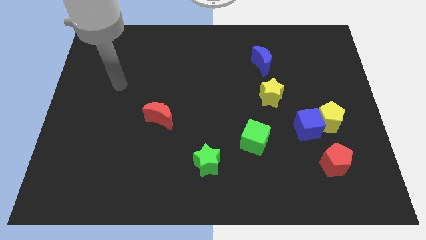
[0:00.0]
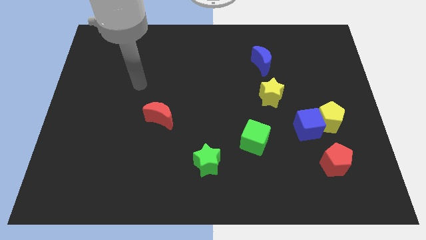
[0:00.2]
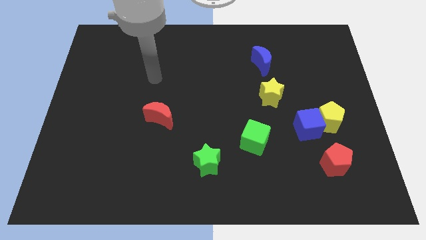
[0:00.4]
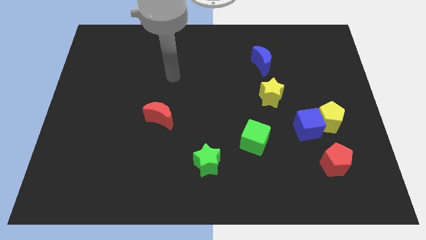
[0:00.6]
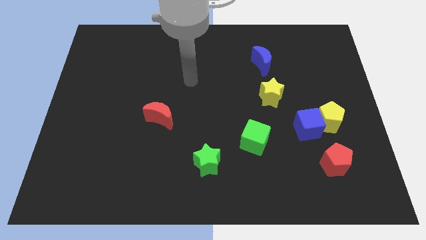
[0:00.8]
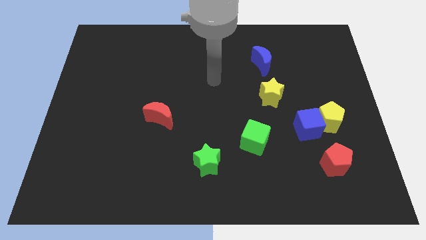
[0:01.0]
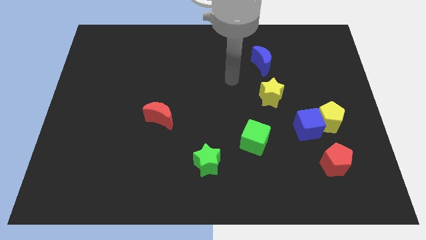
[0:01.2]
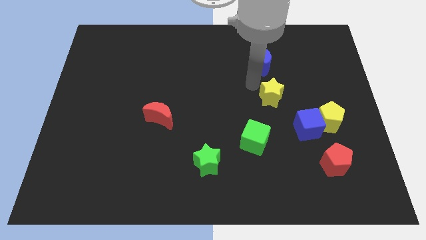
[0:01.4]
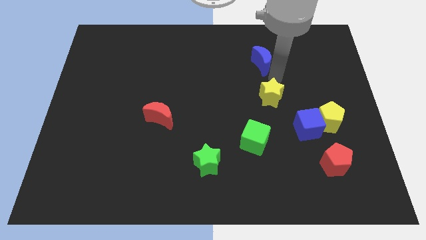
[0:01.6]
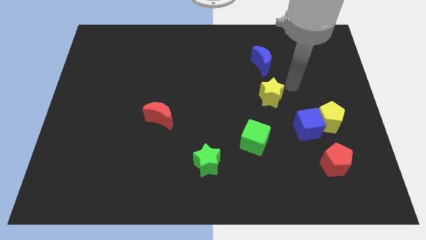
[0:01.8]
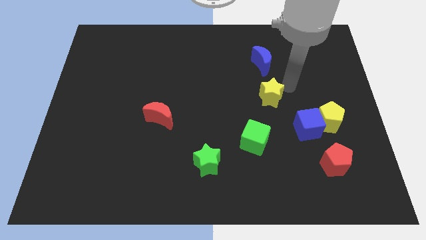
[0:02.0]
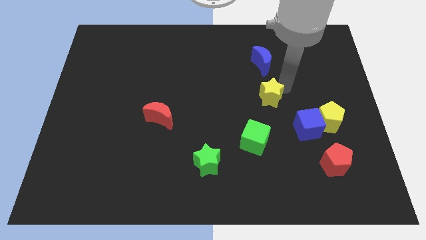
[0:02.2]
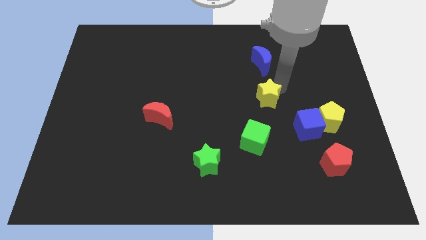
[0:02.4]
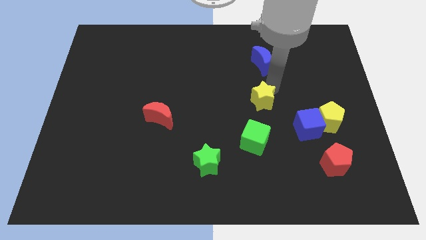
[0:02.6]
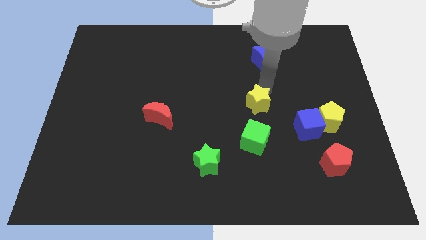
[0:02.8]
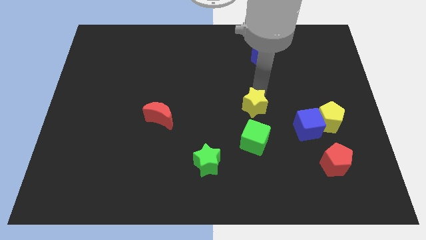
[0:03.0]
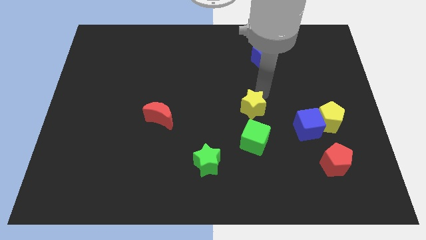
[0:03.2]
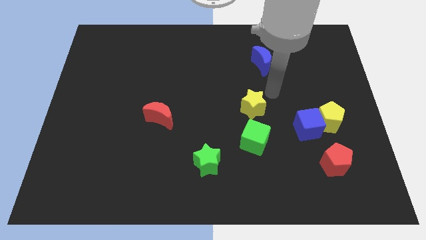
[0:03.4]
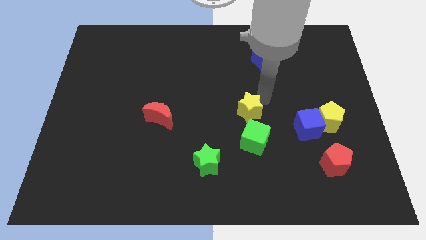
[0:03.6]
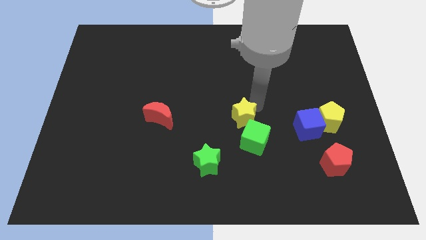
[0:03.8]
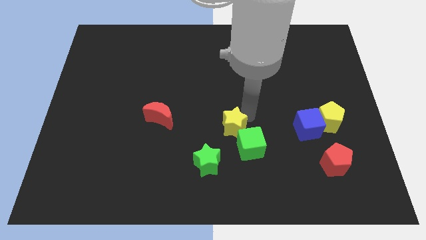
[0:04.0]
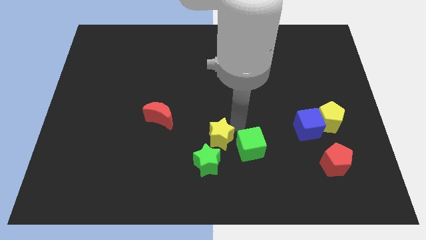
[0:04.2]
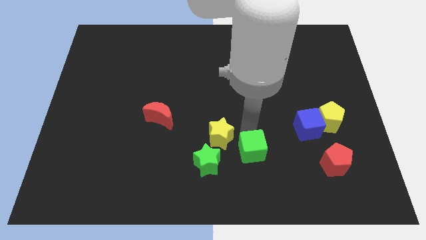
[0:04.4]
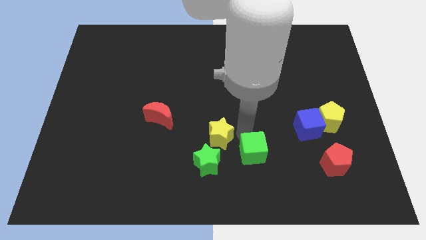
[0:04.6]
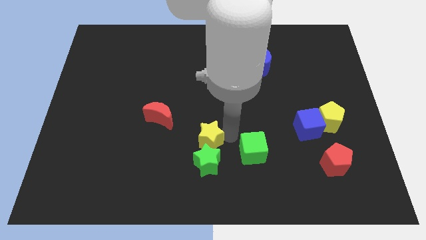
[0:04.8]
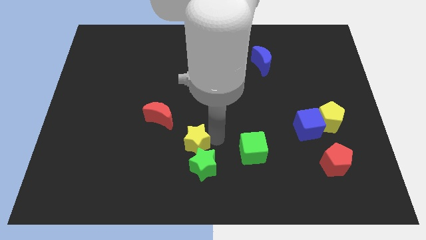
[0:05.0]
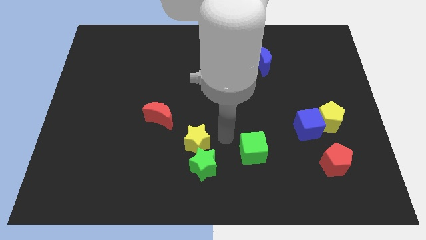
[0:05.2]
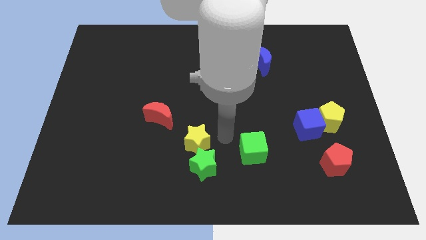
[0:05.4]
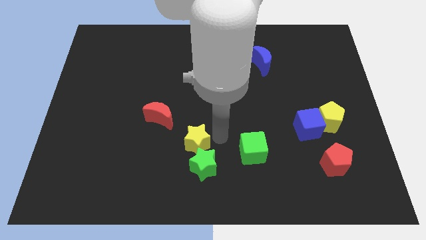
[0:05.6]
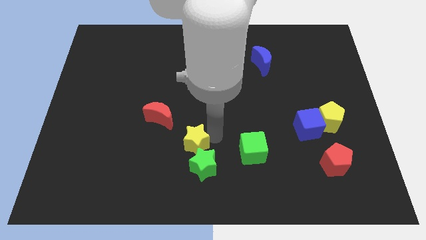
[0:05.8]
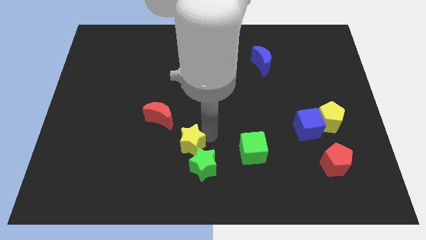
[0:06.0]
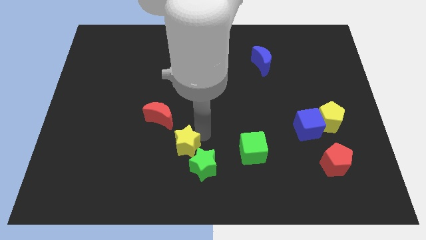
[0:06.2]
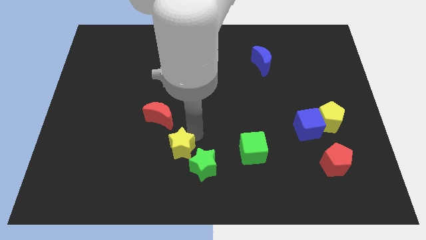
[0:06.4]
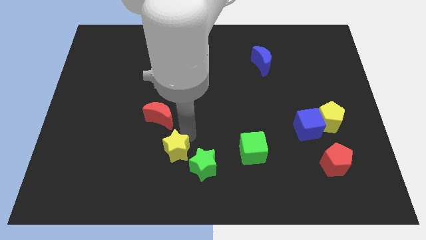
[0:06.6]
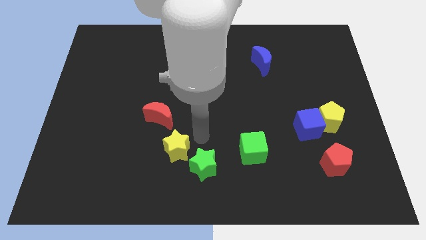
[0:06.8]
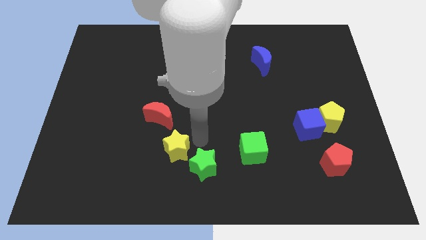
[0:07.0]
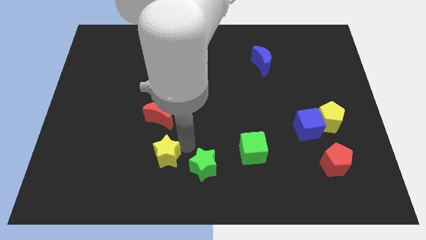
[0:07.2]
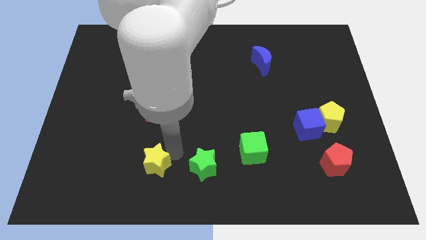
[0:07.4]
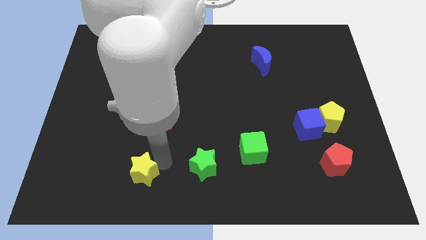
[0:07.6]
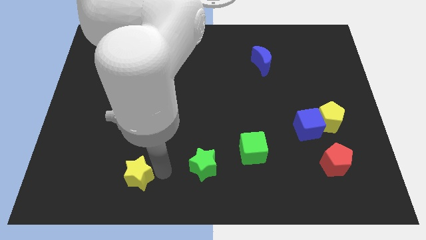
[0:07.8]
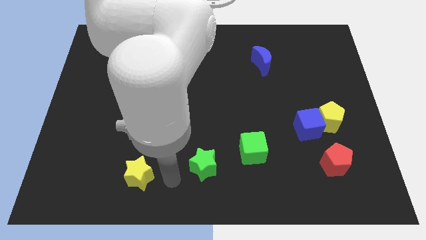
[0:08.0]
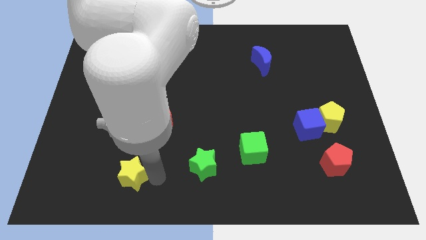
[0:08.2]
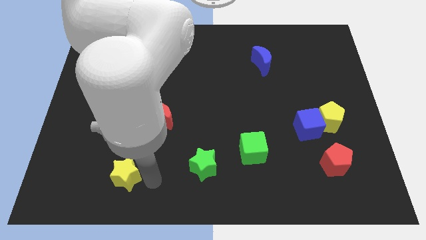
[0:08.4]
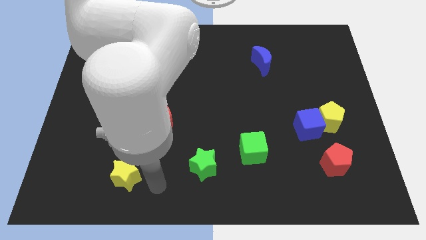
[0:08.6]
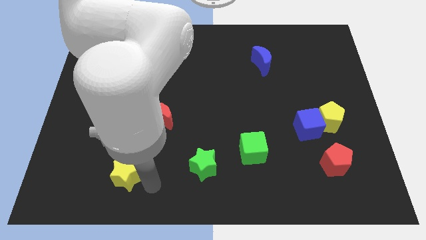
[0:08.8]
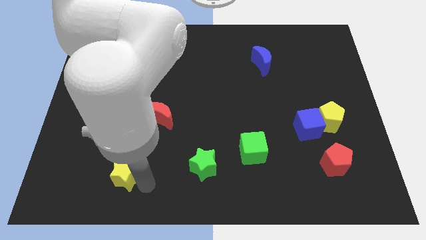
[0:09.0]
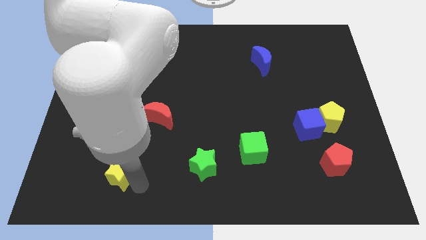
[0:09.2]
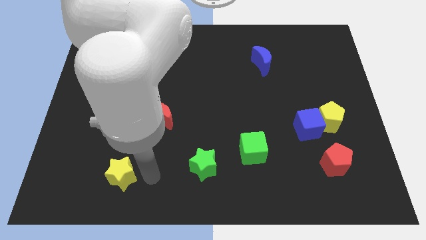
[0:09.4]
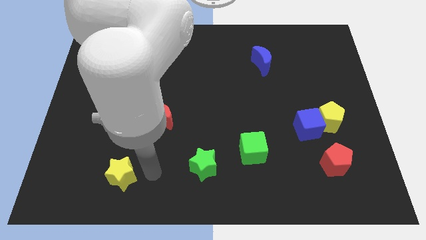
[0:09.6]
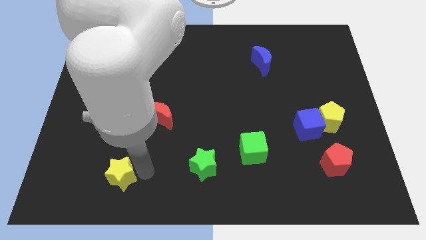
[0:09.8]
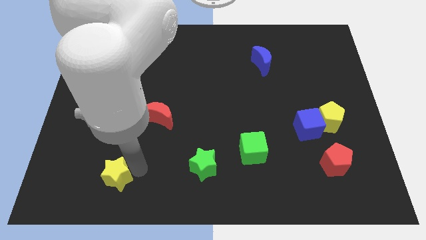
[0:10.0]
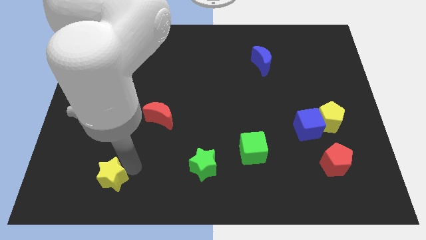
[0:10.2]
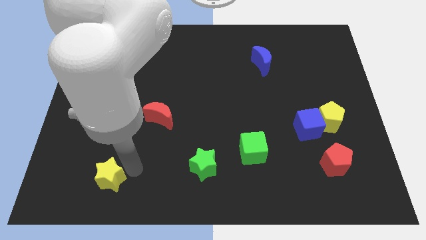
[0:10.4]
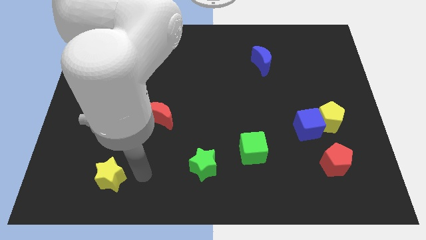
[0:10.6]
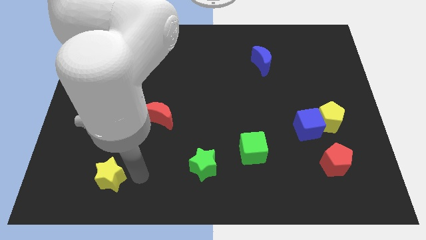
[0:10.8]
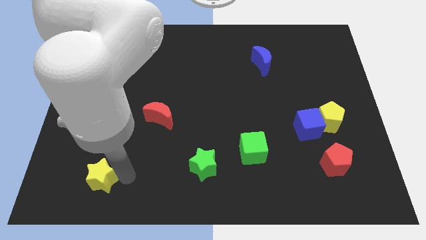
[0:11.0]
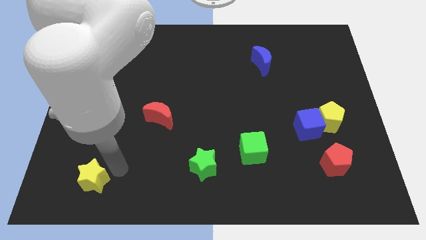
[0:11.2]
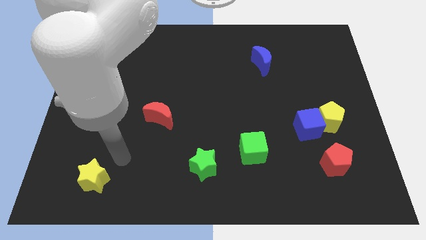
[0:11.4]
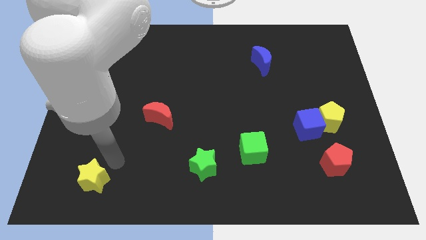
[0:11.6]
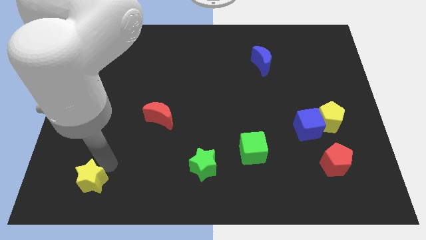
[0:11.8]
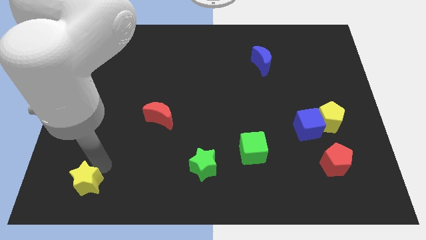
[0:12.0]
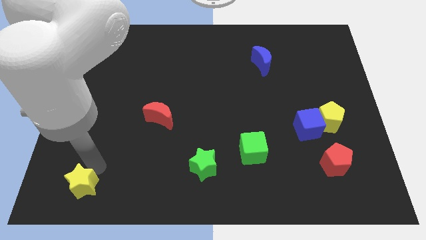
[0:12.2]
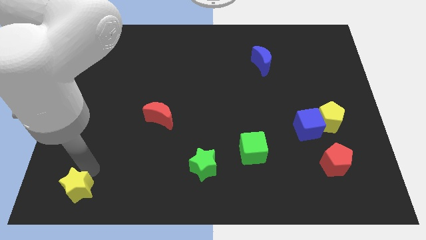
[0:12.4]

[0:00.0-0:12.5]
slide the yellow star to the bottom left of the board
